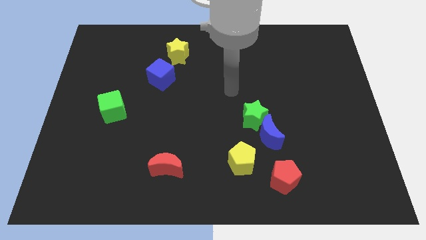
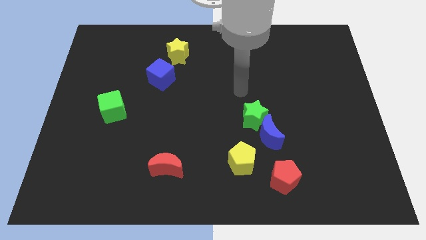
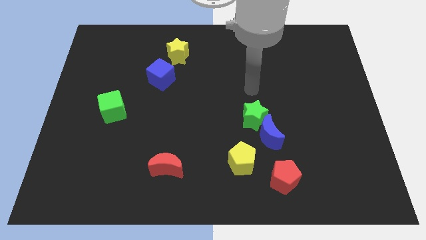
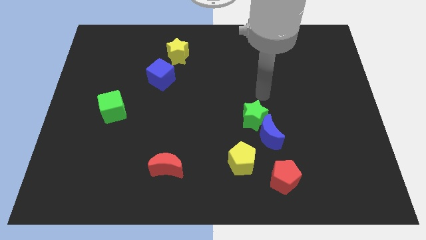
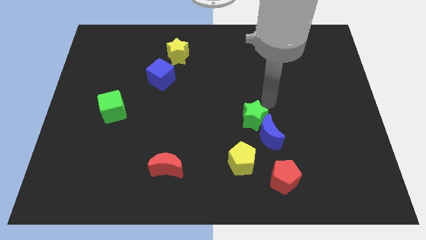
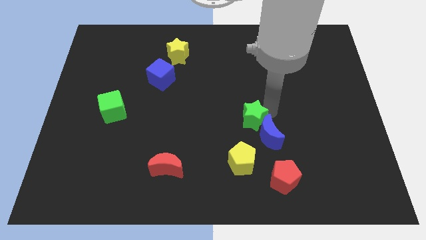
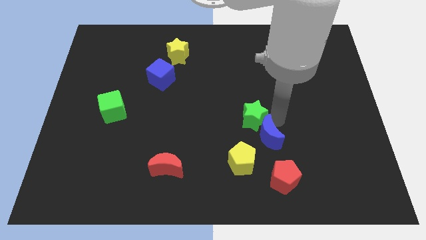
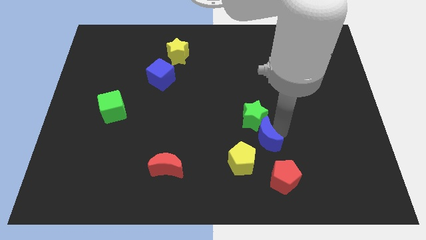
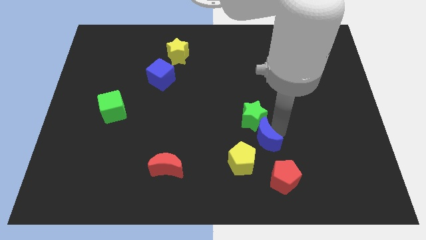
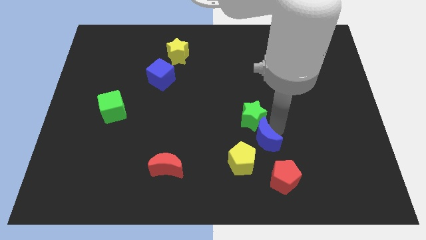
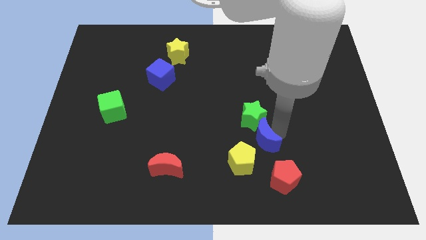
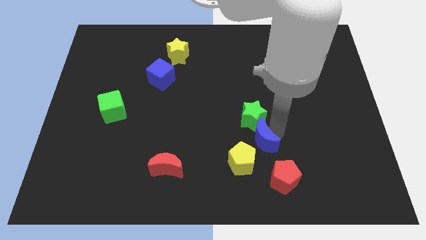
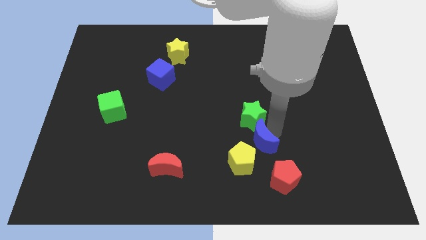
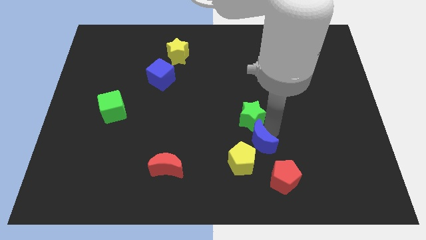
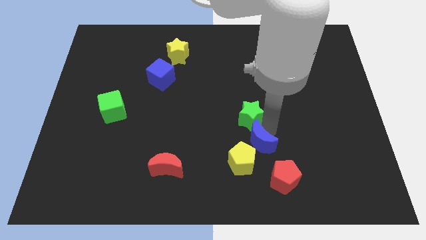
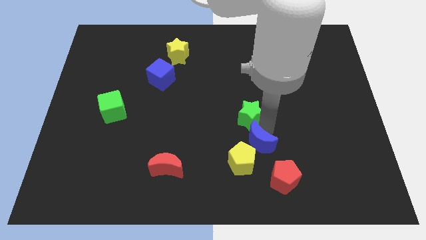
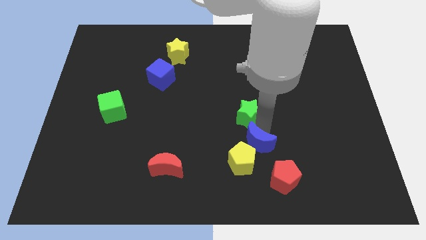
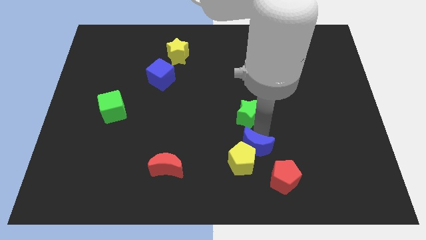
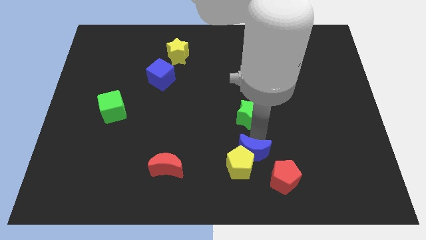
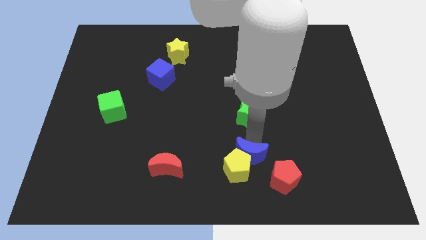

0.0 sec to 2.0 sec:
move the green star away from the blue moon

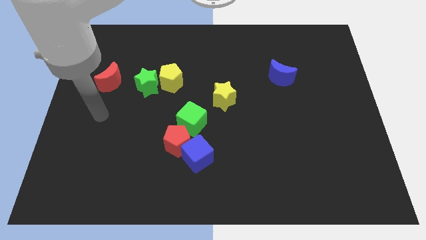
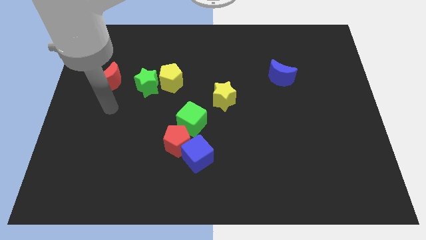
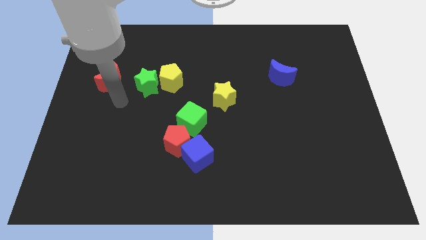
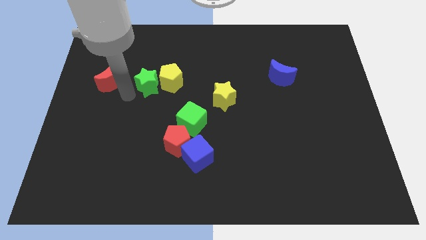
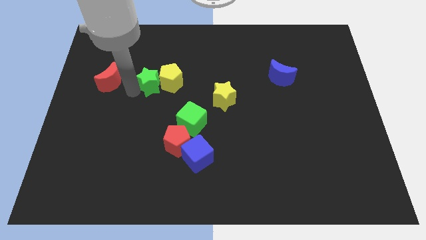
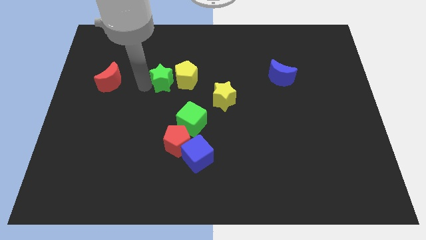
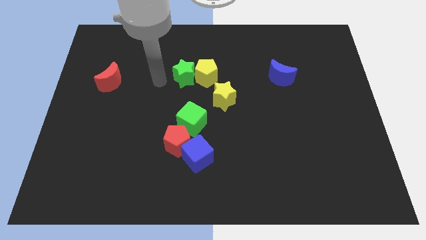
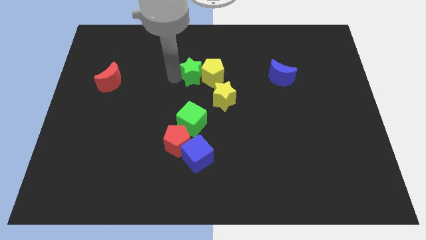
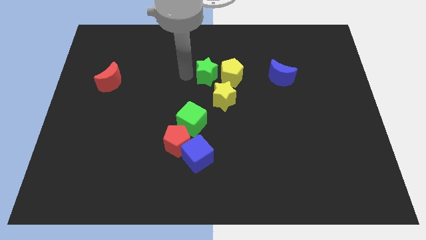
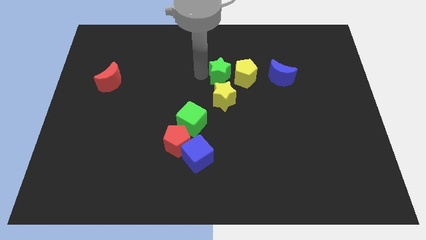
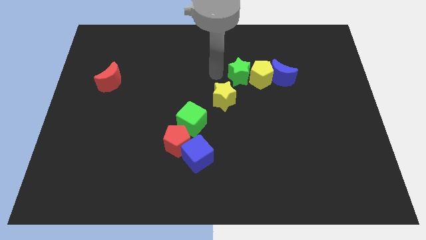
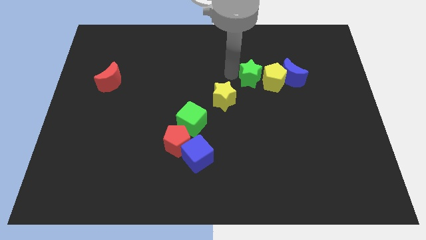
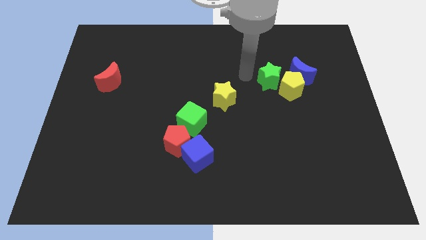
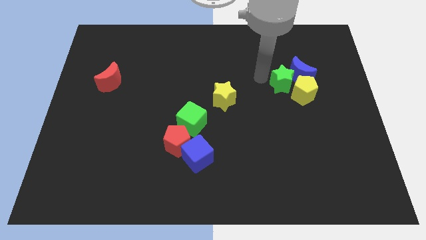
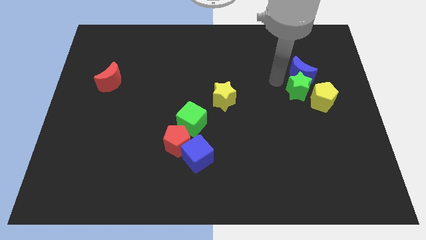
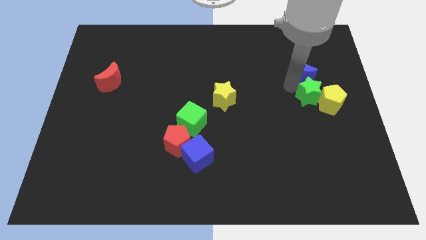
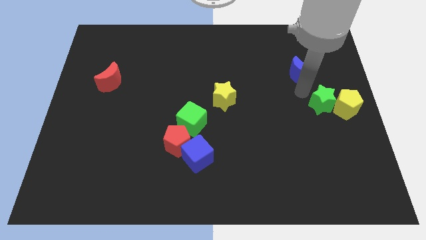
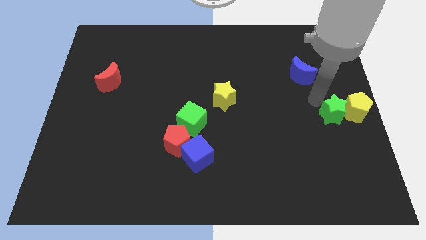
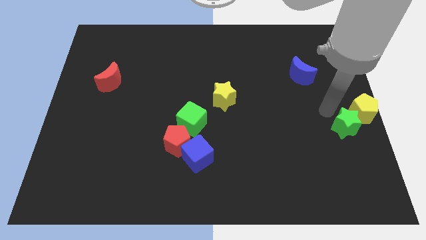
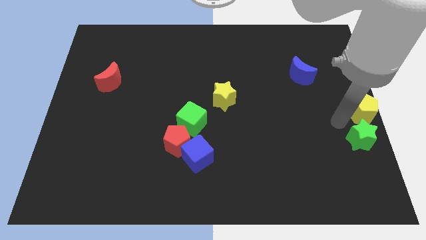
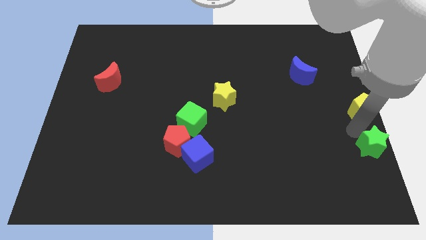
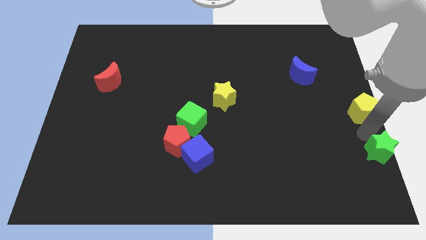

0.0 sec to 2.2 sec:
pull the yellow pentagon apart from the green star

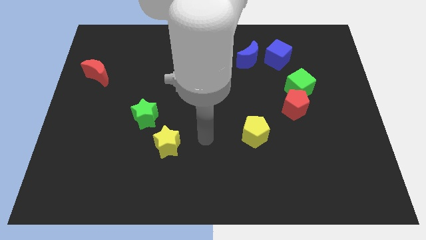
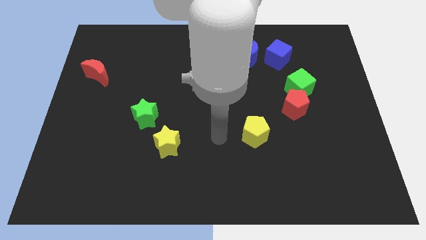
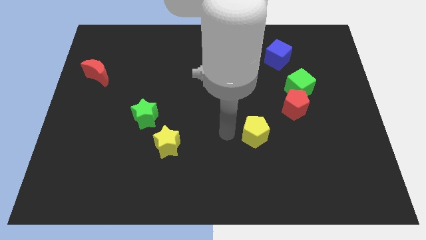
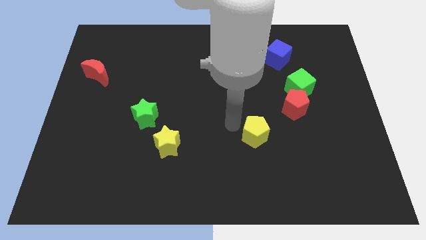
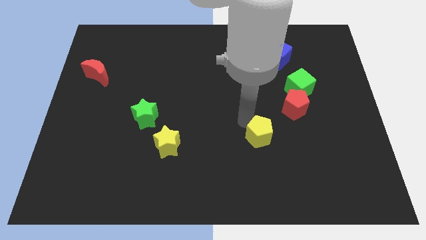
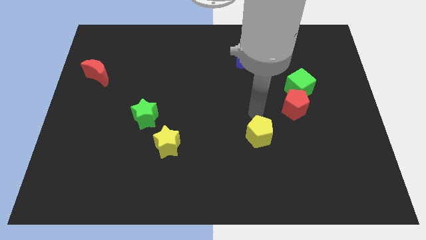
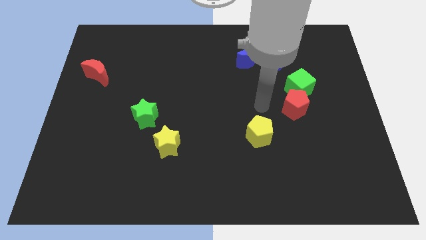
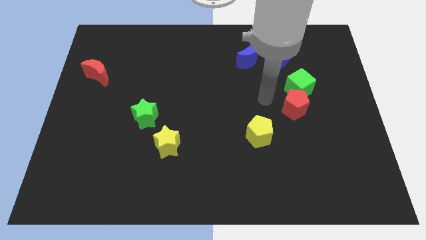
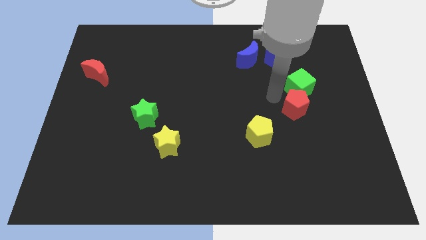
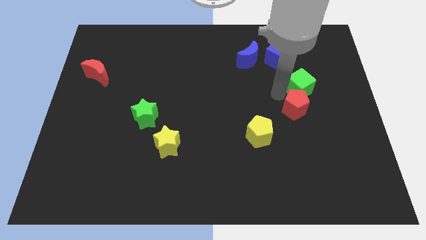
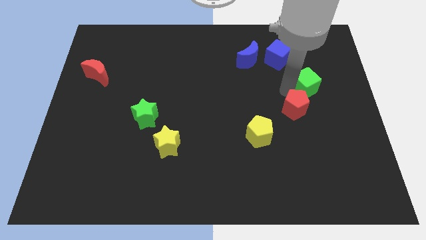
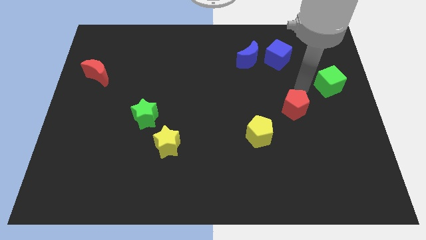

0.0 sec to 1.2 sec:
separate the red pentagon from the green cube

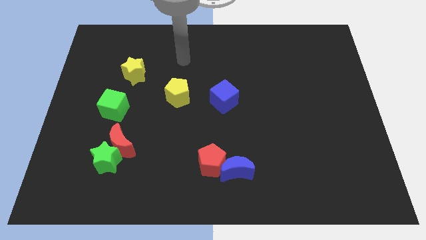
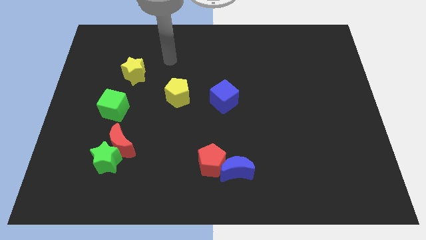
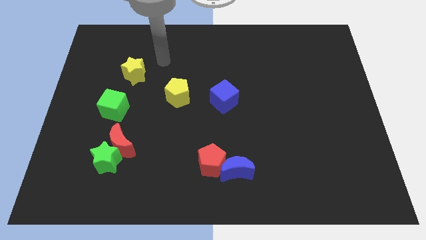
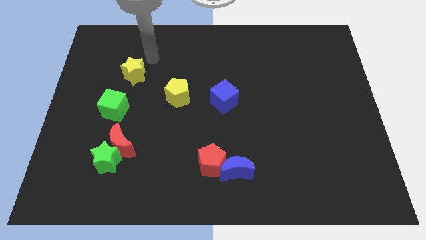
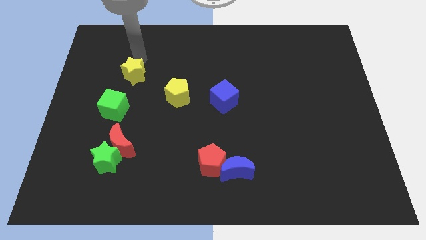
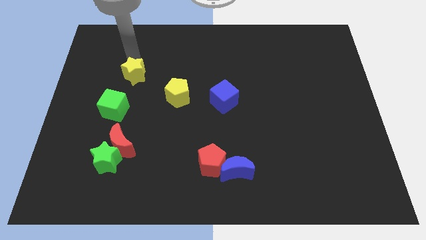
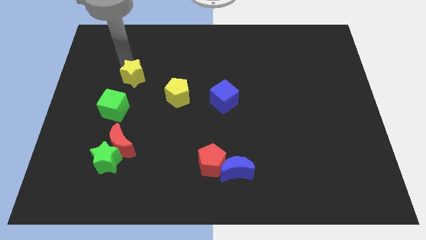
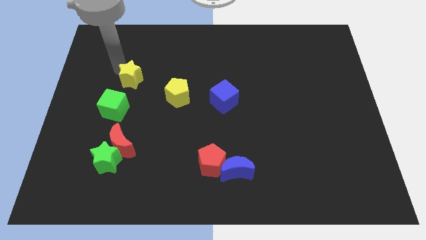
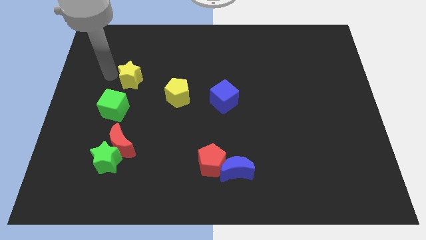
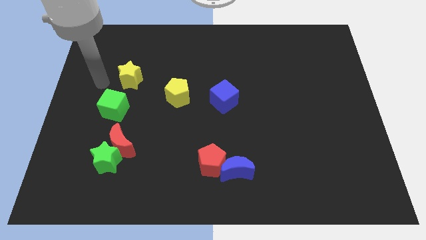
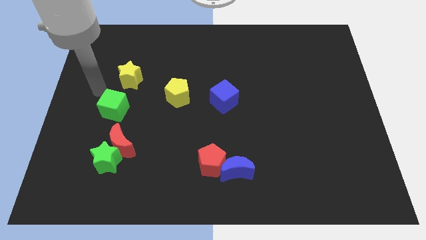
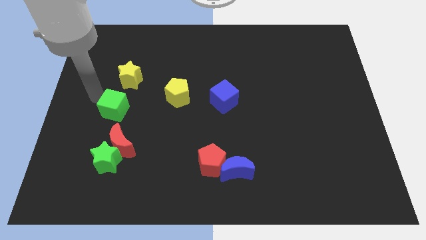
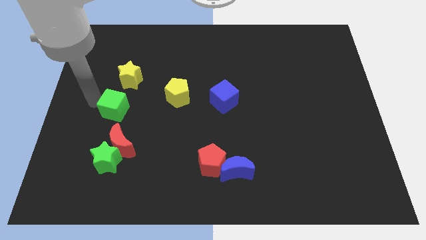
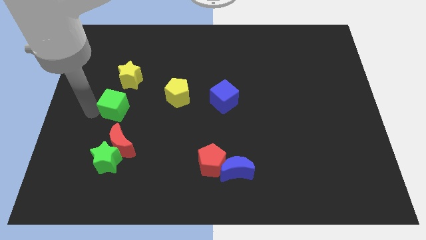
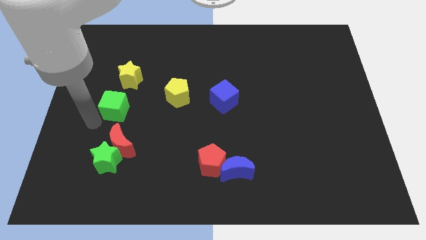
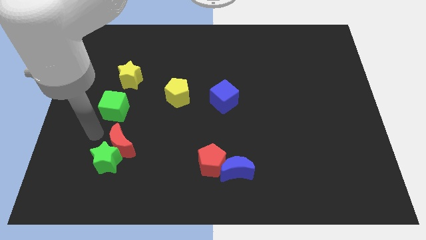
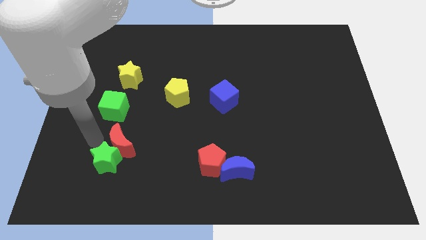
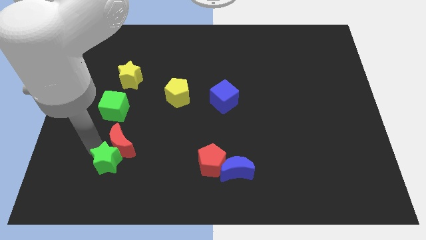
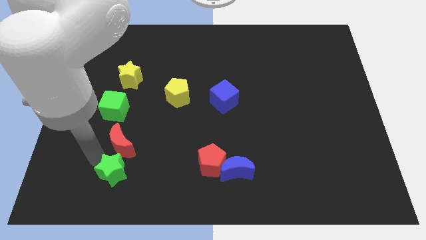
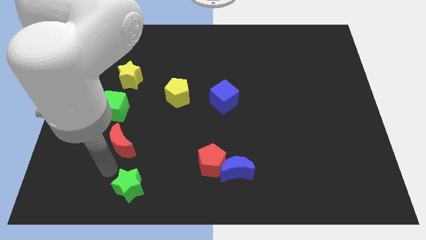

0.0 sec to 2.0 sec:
move the red moon away from the green star

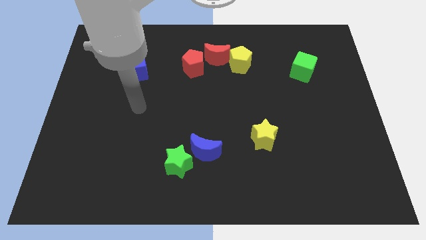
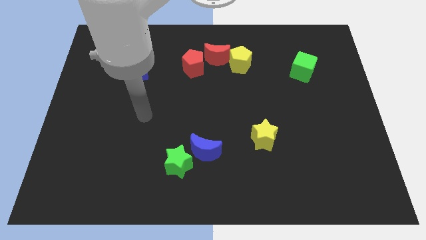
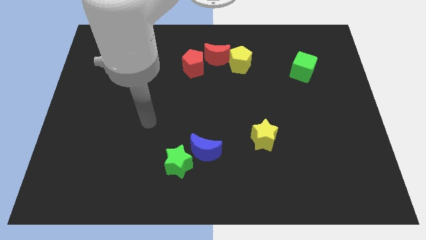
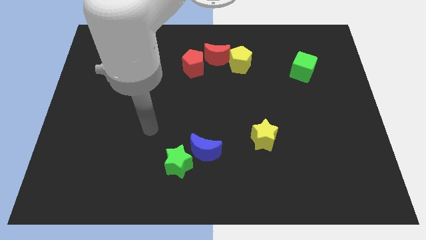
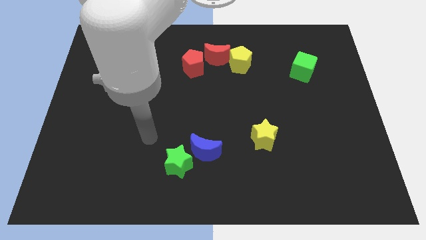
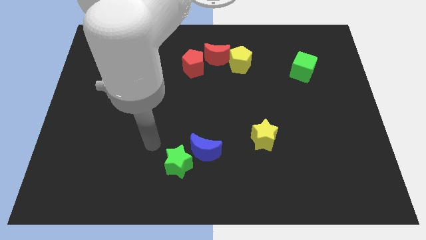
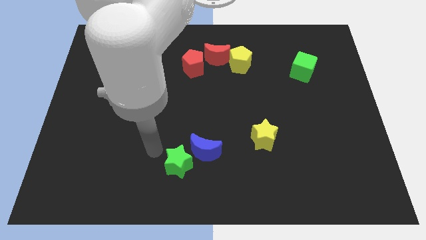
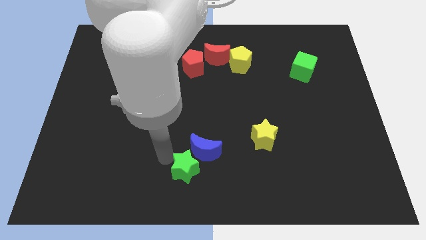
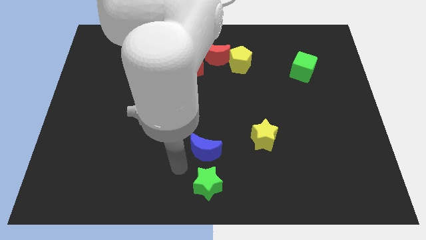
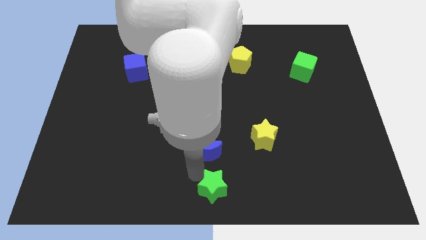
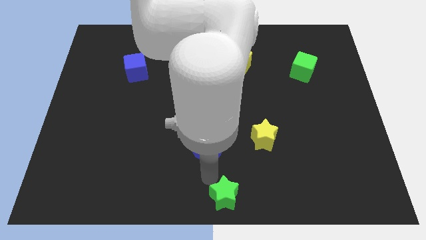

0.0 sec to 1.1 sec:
separate the blue moon from the green star

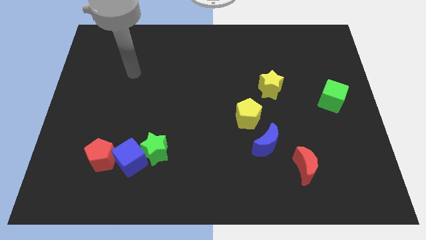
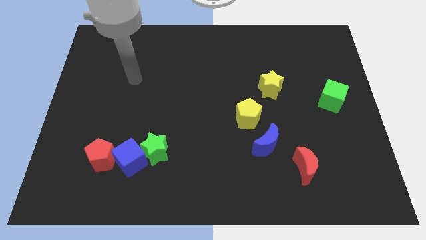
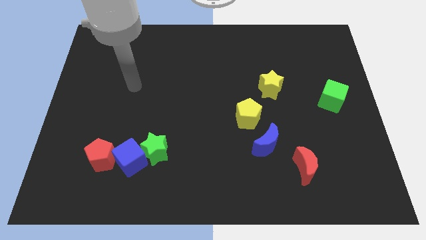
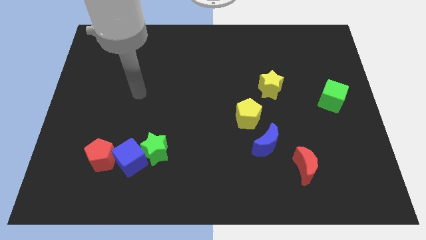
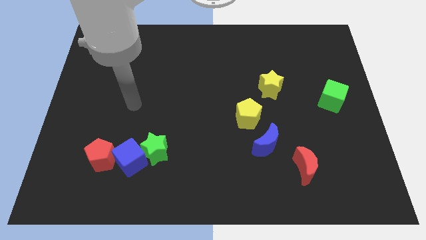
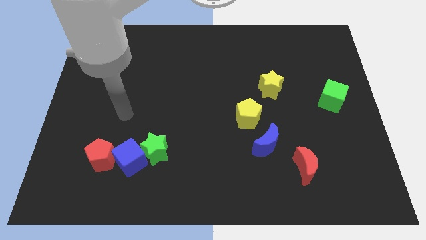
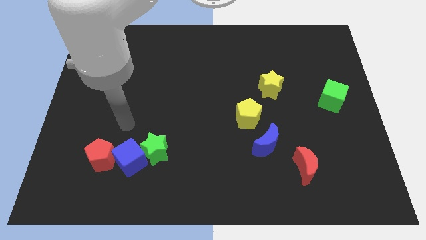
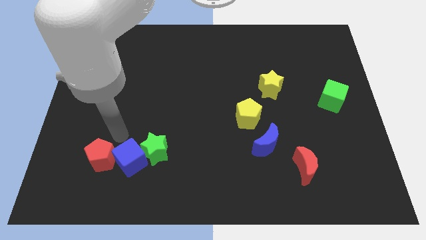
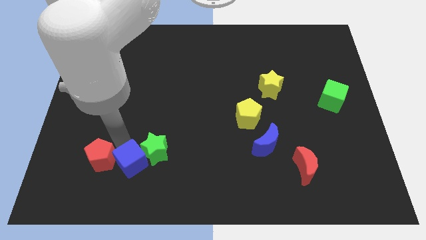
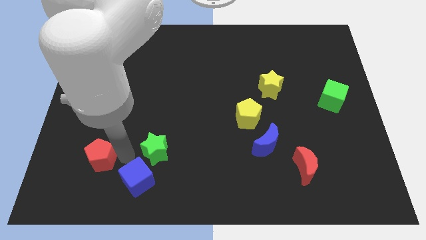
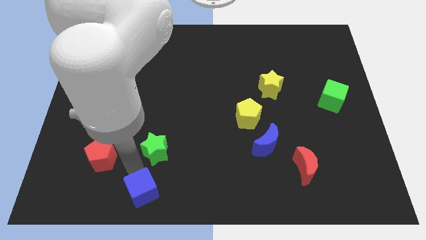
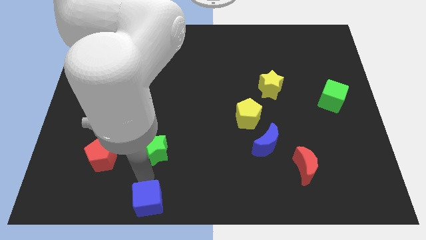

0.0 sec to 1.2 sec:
separate the green star from the blue cube
